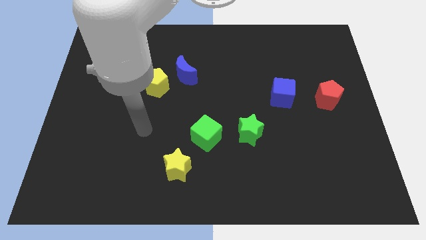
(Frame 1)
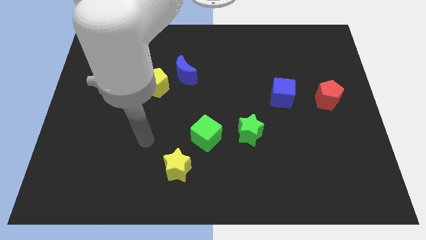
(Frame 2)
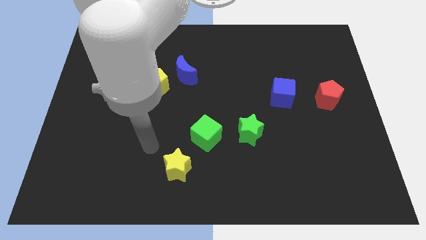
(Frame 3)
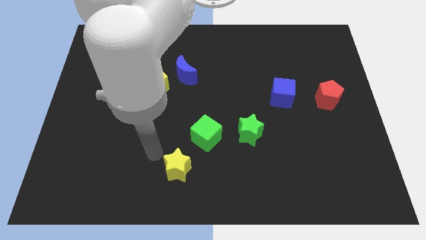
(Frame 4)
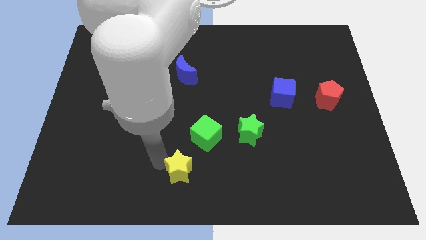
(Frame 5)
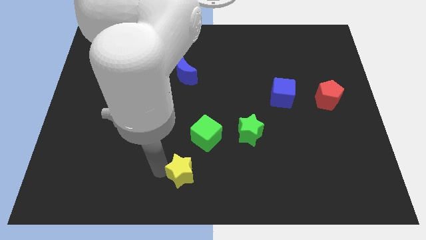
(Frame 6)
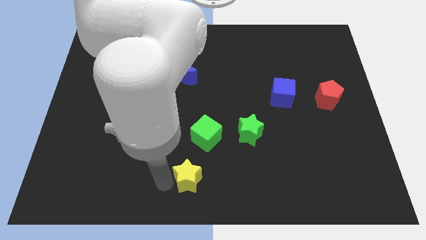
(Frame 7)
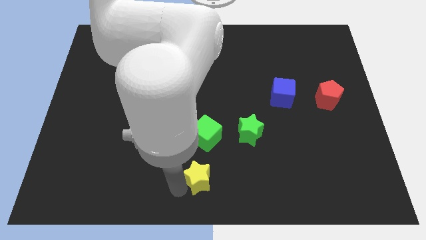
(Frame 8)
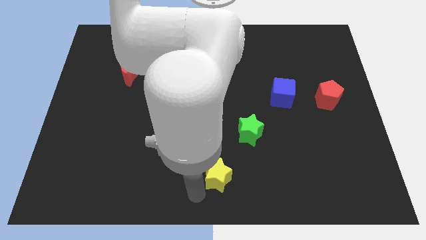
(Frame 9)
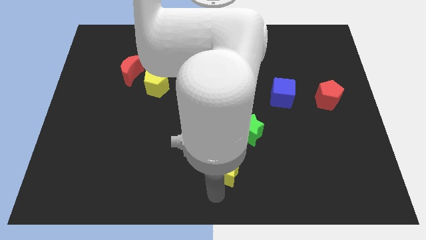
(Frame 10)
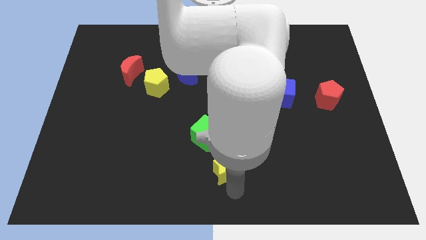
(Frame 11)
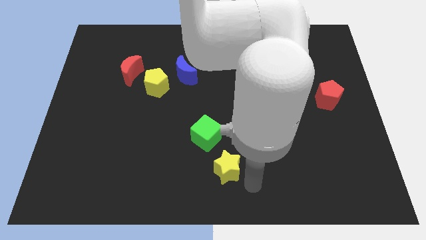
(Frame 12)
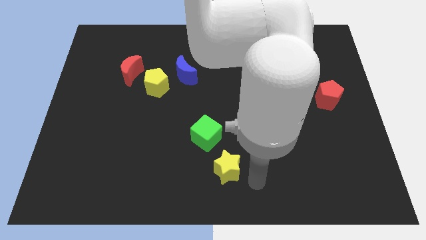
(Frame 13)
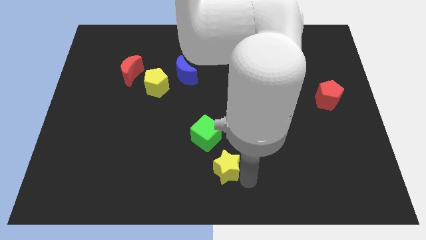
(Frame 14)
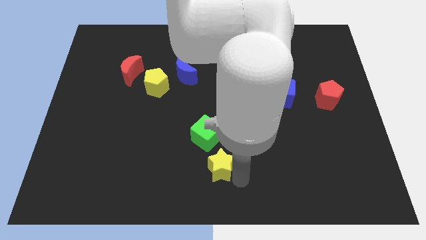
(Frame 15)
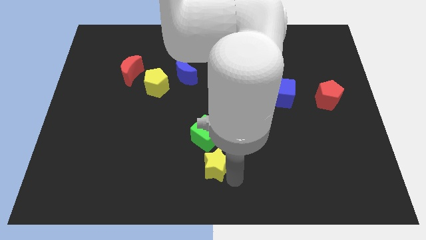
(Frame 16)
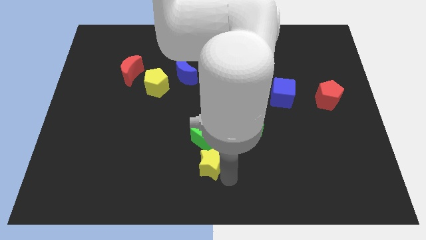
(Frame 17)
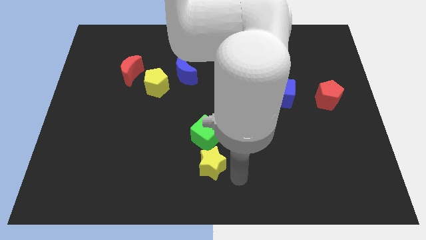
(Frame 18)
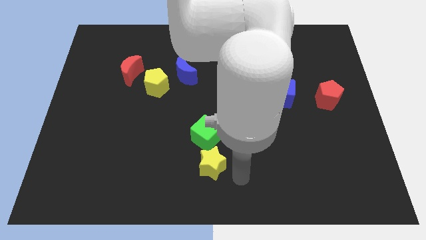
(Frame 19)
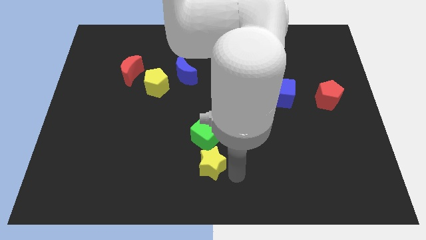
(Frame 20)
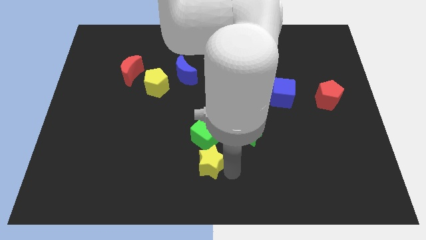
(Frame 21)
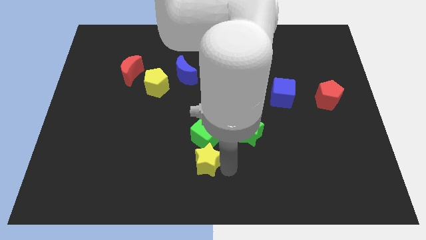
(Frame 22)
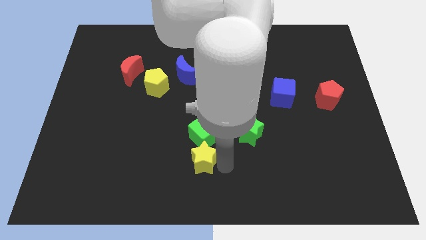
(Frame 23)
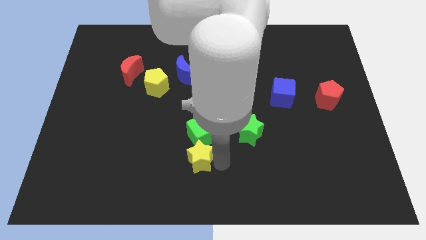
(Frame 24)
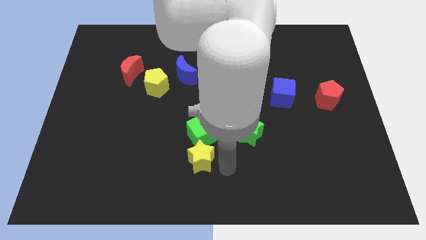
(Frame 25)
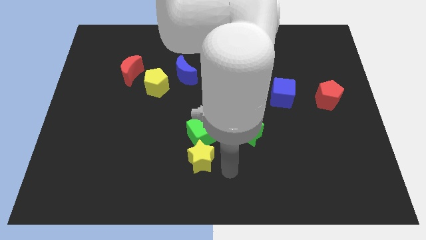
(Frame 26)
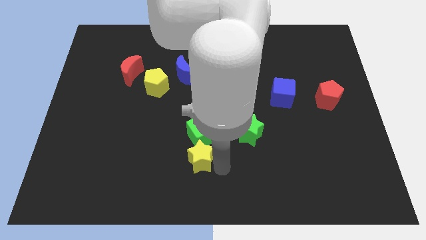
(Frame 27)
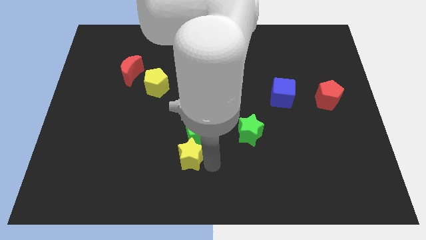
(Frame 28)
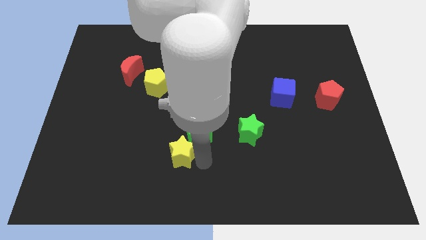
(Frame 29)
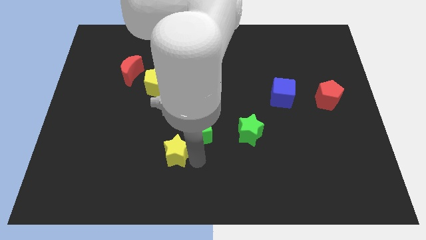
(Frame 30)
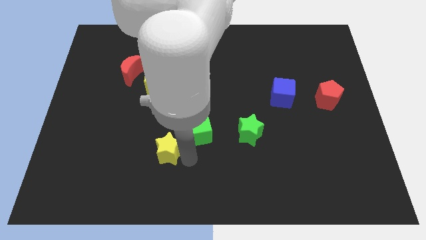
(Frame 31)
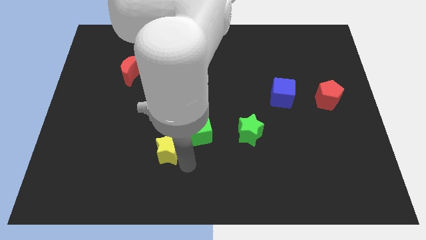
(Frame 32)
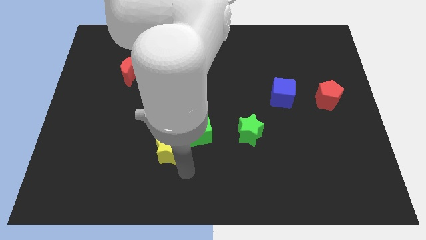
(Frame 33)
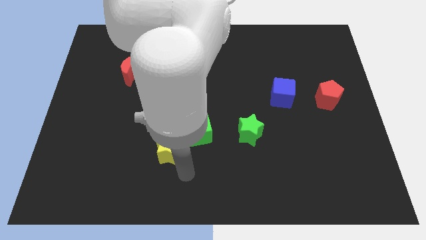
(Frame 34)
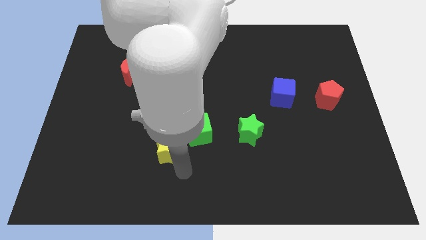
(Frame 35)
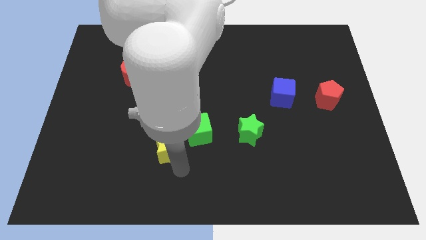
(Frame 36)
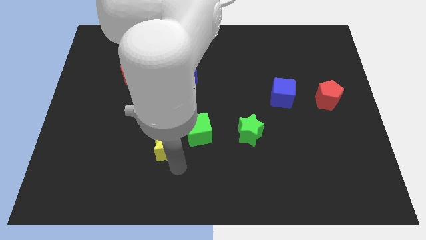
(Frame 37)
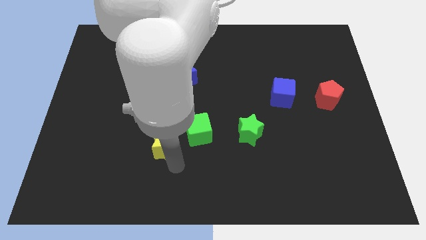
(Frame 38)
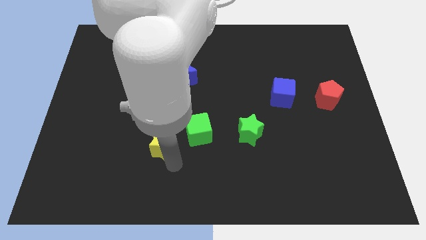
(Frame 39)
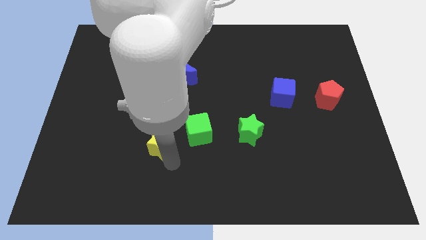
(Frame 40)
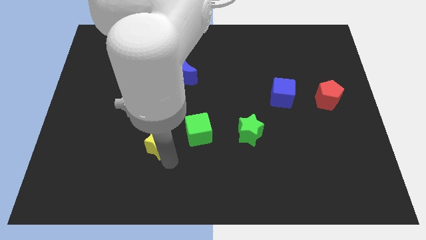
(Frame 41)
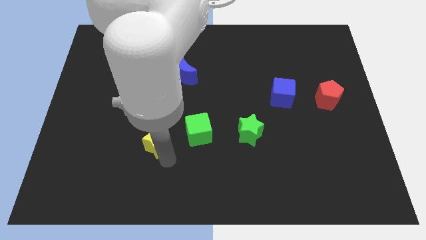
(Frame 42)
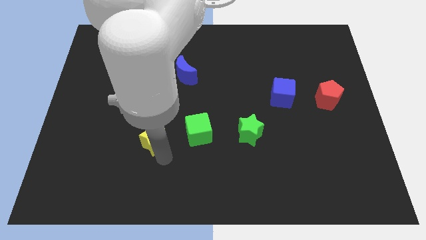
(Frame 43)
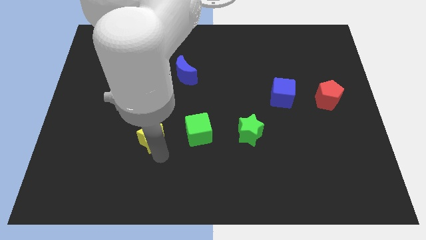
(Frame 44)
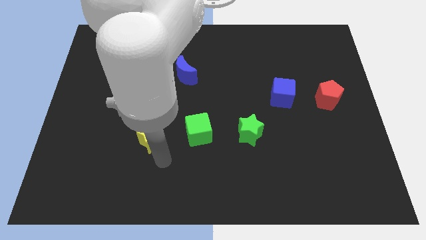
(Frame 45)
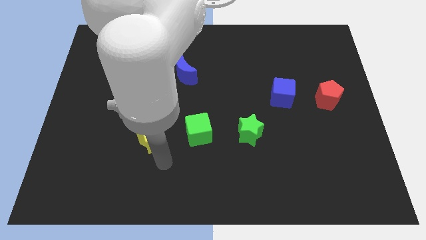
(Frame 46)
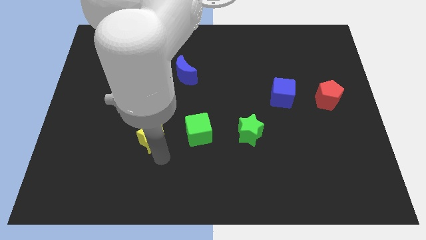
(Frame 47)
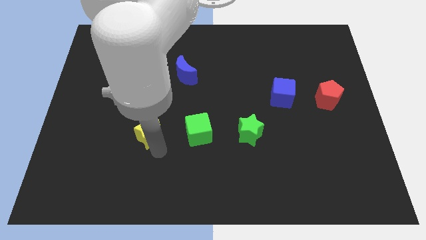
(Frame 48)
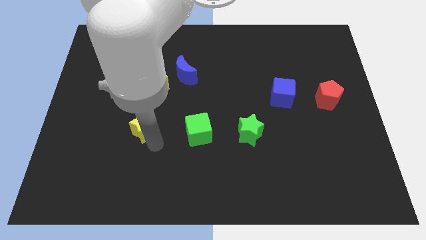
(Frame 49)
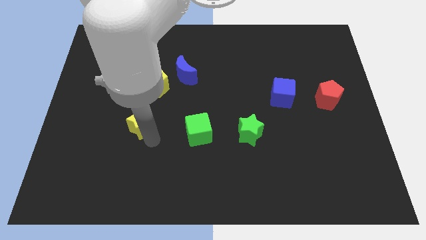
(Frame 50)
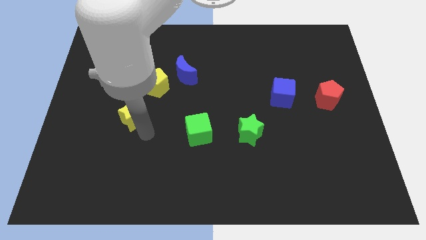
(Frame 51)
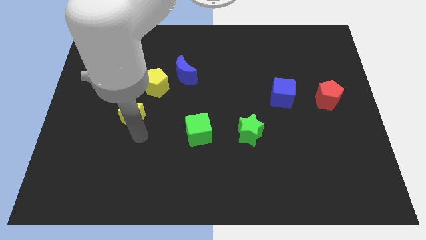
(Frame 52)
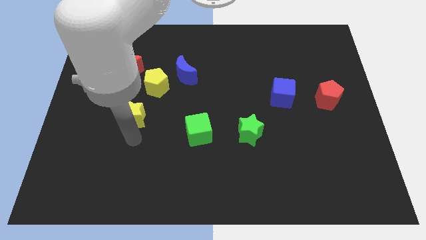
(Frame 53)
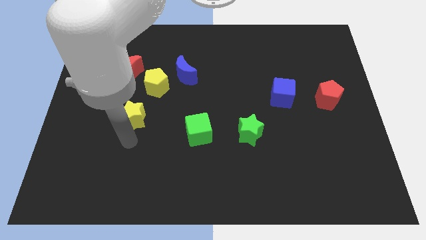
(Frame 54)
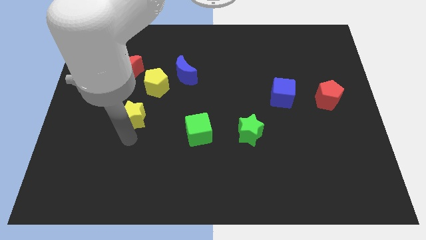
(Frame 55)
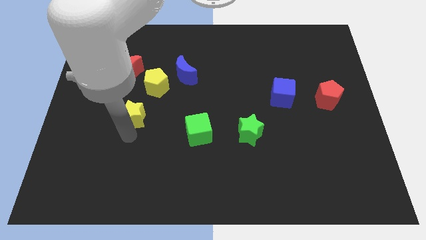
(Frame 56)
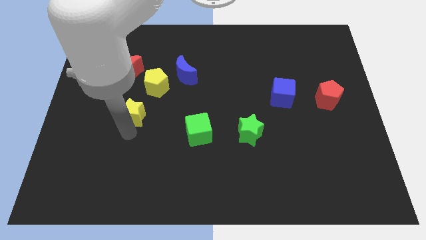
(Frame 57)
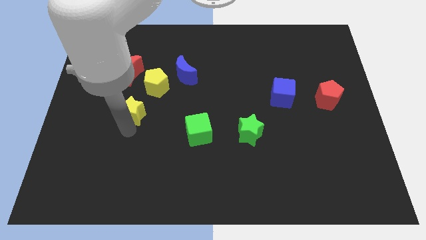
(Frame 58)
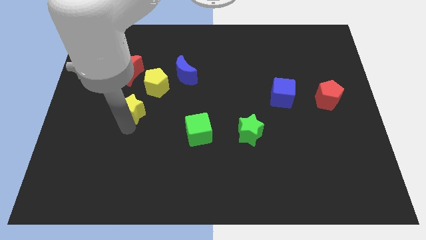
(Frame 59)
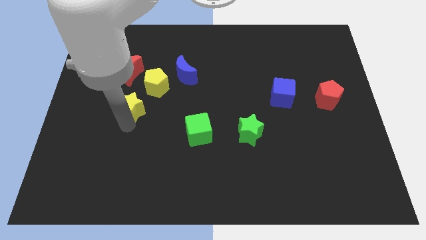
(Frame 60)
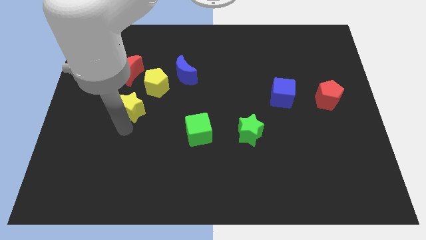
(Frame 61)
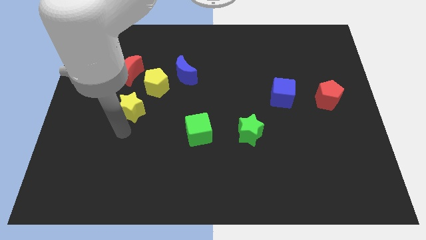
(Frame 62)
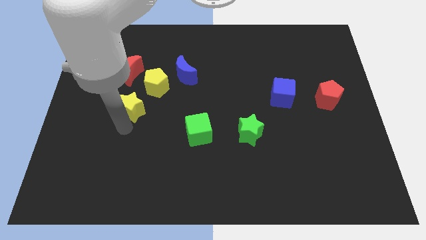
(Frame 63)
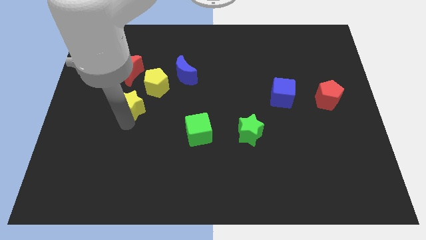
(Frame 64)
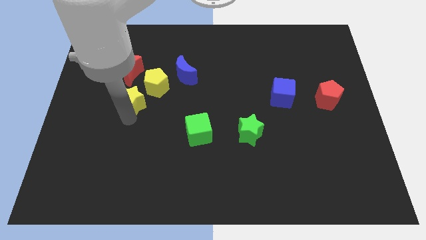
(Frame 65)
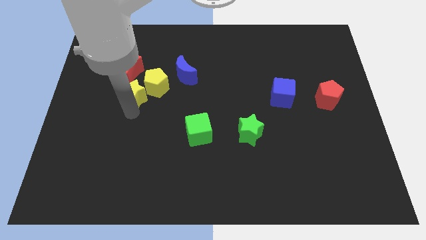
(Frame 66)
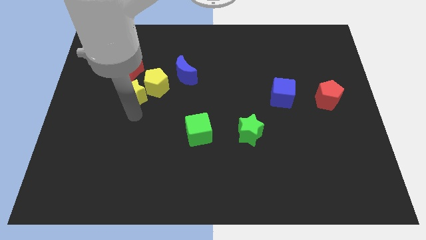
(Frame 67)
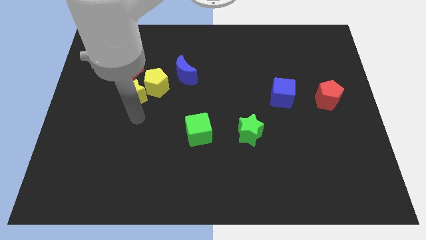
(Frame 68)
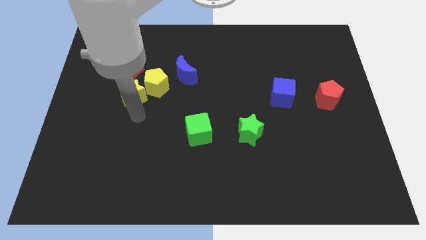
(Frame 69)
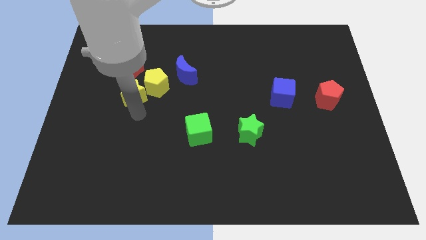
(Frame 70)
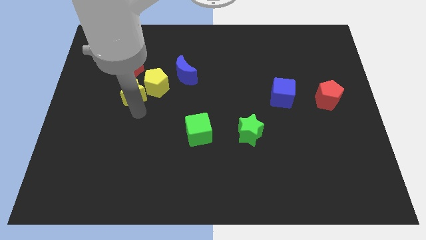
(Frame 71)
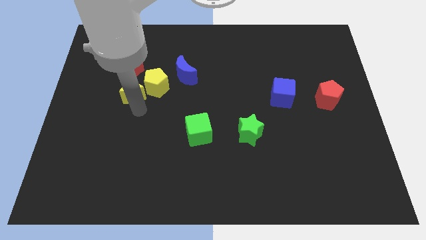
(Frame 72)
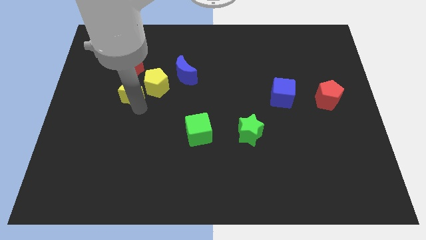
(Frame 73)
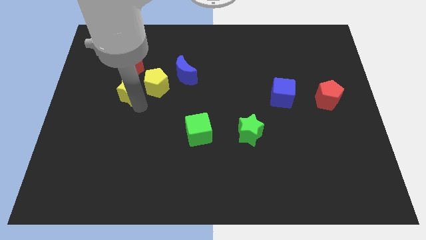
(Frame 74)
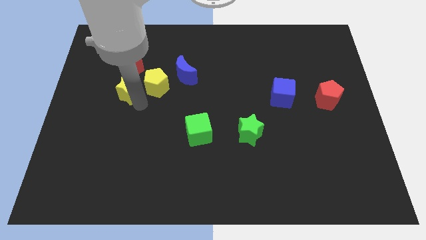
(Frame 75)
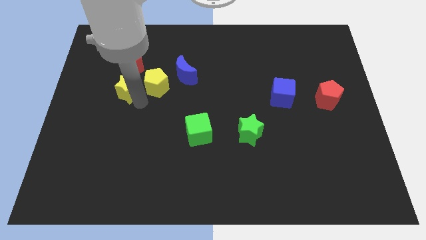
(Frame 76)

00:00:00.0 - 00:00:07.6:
move the yellow star towards the red moon

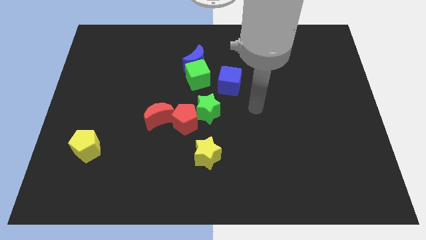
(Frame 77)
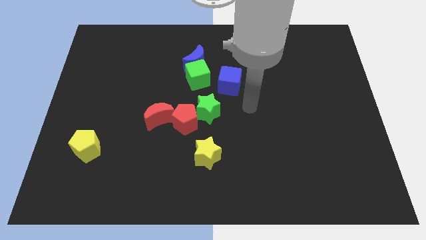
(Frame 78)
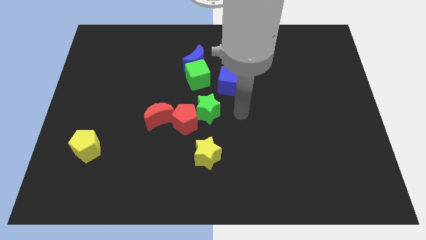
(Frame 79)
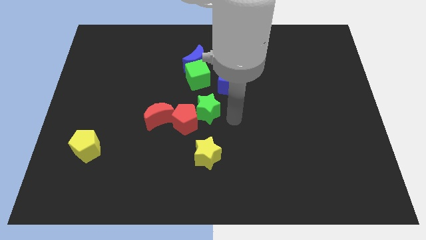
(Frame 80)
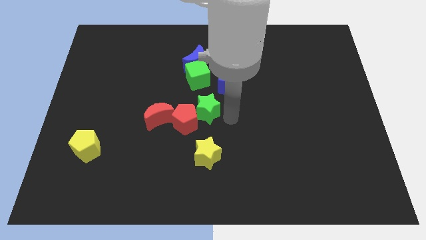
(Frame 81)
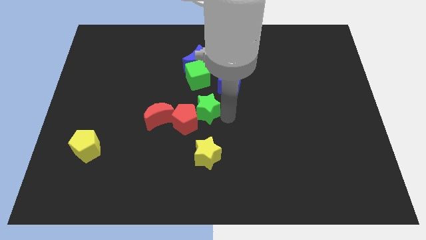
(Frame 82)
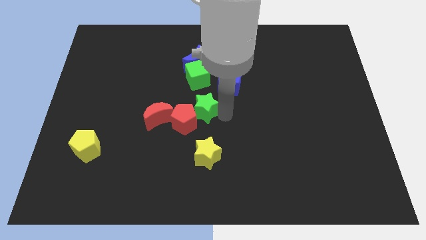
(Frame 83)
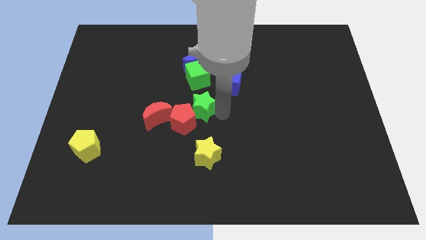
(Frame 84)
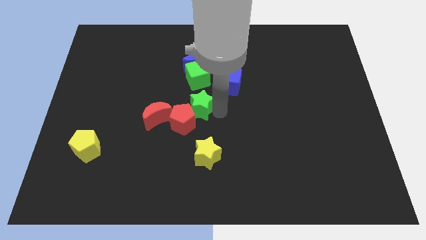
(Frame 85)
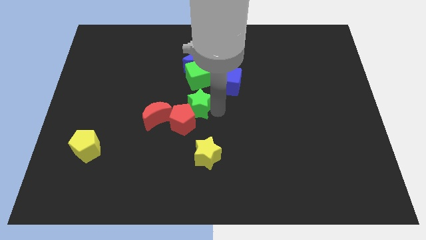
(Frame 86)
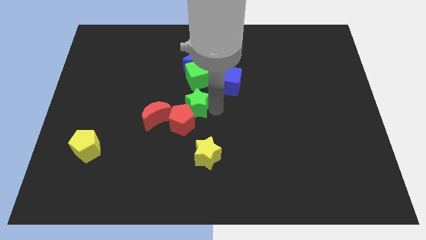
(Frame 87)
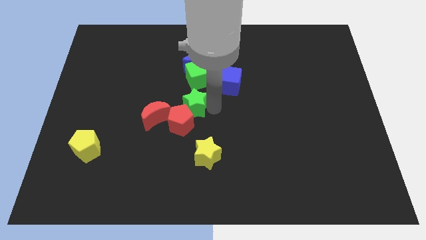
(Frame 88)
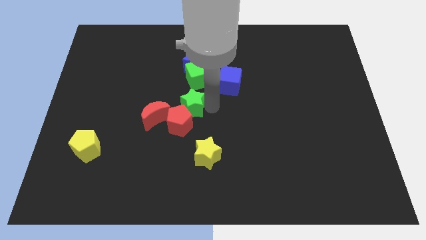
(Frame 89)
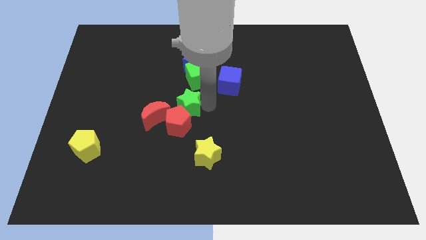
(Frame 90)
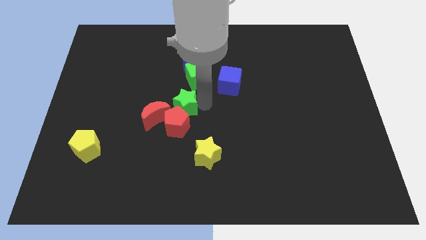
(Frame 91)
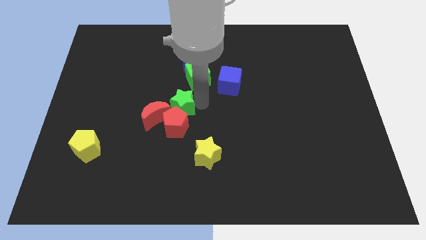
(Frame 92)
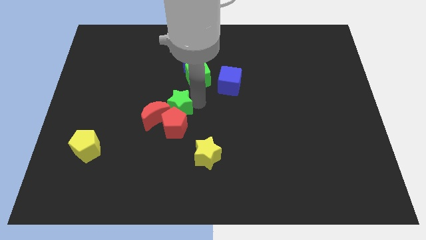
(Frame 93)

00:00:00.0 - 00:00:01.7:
put the green star towards the red moon
